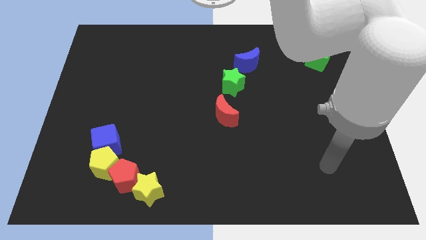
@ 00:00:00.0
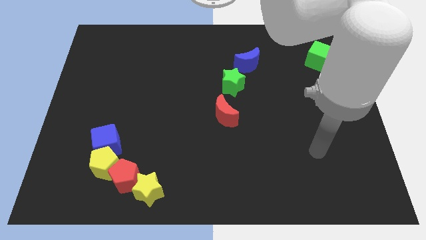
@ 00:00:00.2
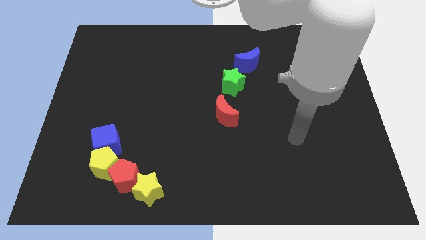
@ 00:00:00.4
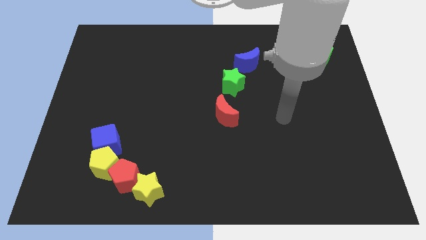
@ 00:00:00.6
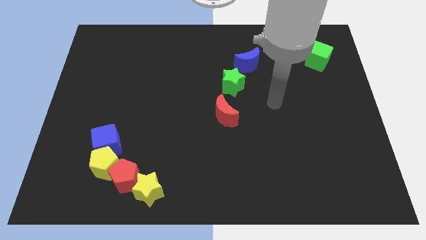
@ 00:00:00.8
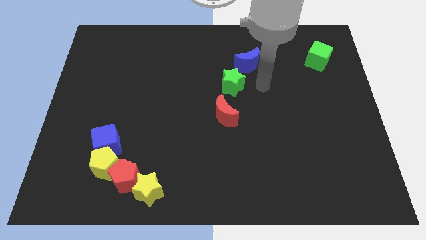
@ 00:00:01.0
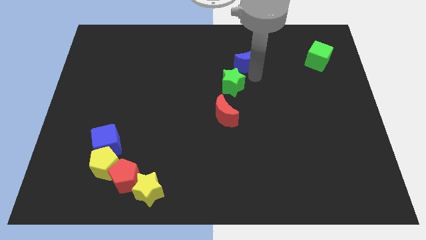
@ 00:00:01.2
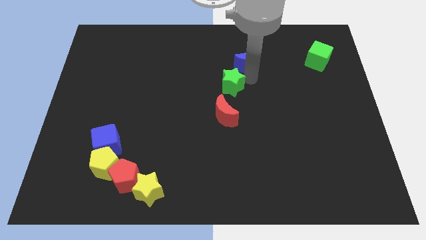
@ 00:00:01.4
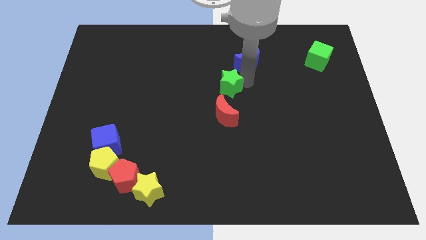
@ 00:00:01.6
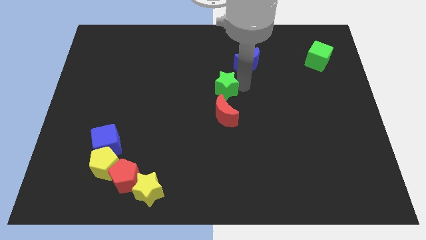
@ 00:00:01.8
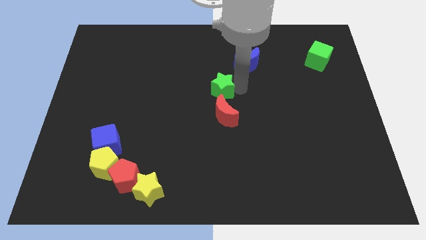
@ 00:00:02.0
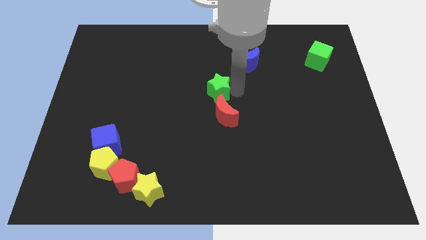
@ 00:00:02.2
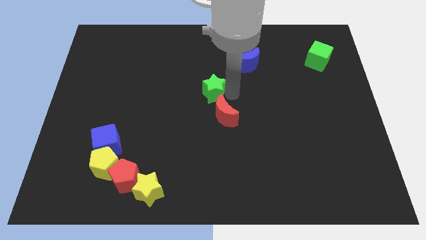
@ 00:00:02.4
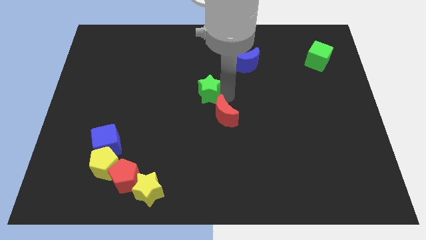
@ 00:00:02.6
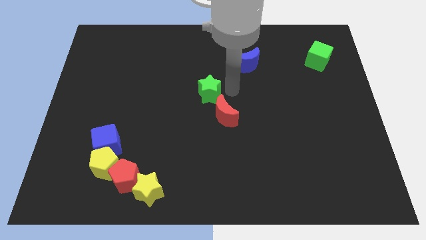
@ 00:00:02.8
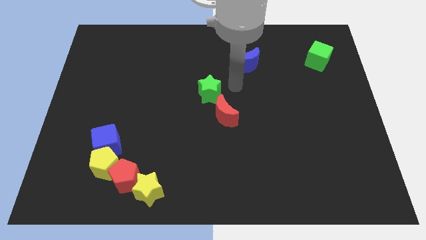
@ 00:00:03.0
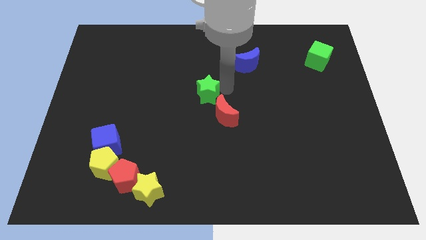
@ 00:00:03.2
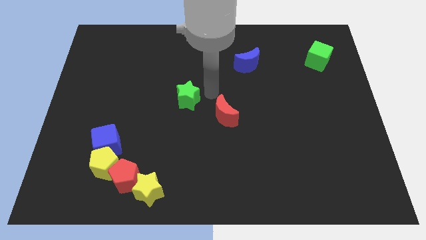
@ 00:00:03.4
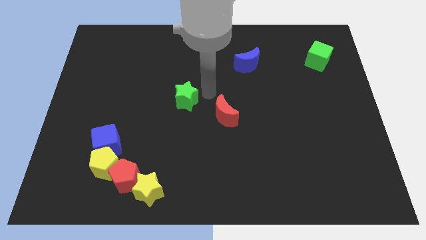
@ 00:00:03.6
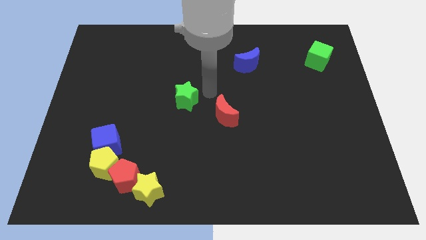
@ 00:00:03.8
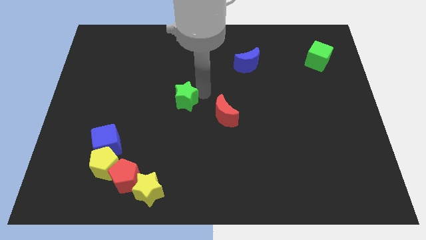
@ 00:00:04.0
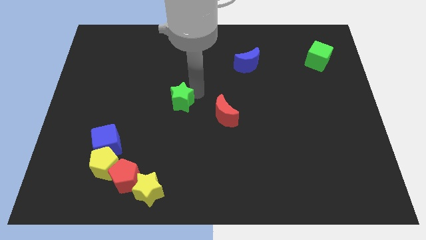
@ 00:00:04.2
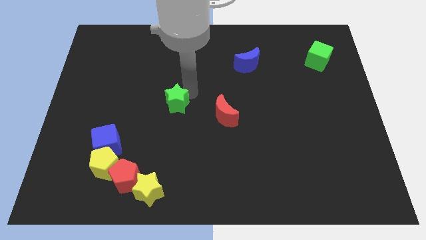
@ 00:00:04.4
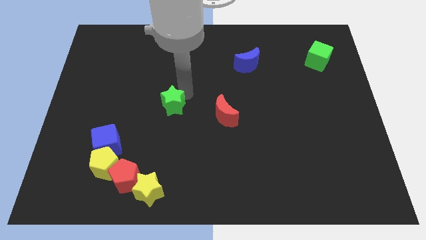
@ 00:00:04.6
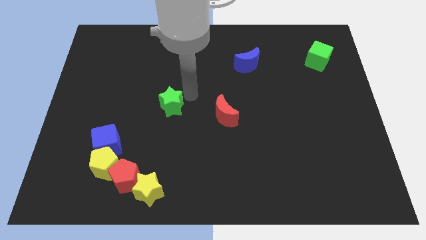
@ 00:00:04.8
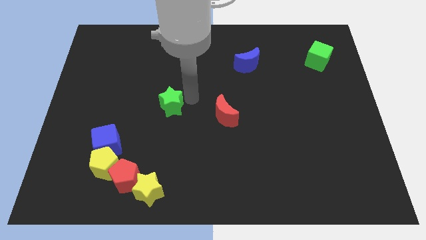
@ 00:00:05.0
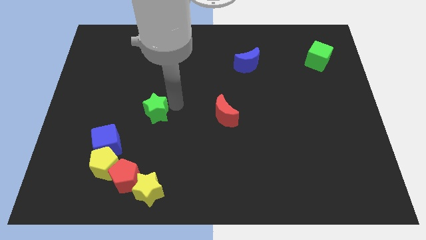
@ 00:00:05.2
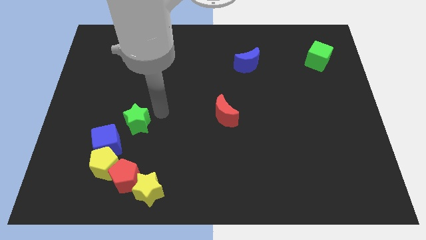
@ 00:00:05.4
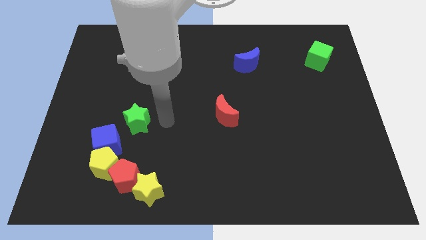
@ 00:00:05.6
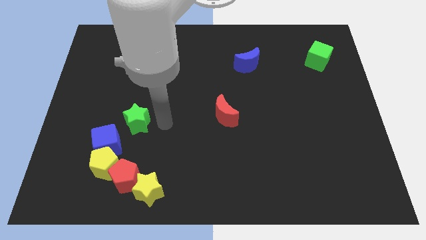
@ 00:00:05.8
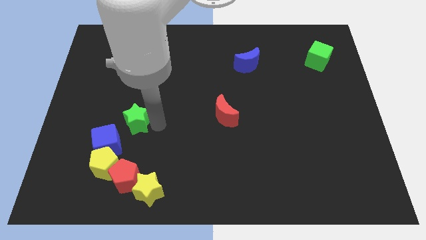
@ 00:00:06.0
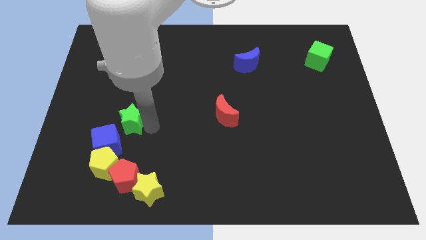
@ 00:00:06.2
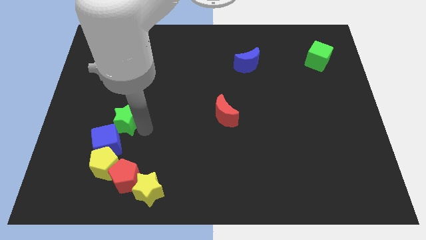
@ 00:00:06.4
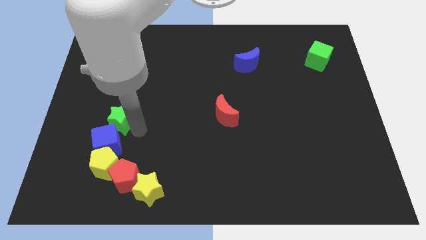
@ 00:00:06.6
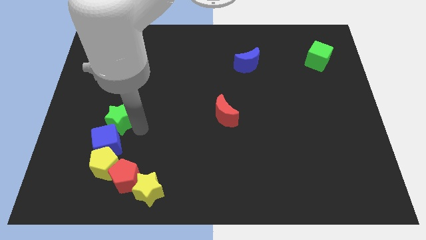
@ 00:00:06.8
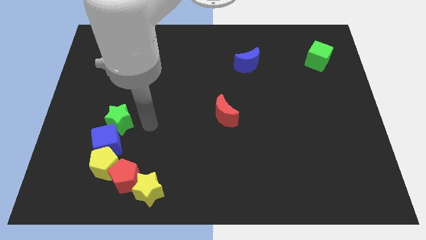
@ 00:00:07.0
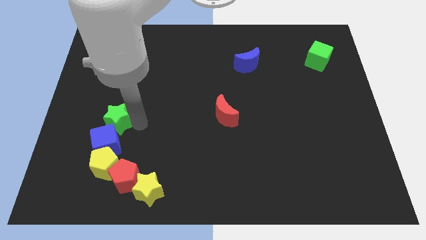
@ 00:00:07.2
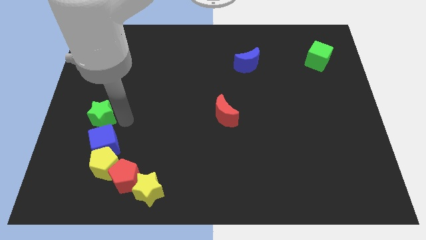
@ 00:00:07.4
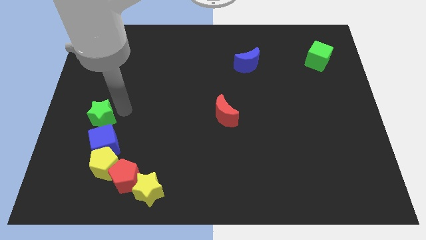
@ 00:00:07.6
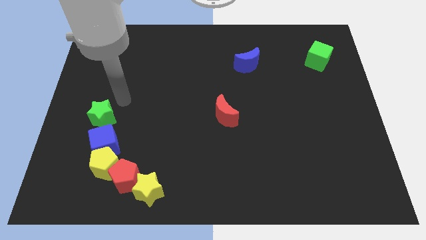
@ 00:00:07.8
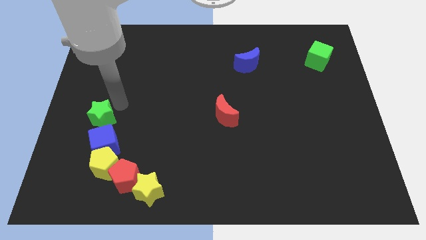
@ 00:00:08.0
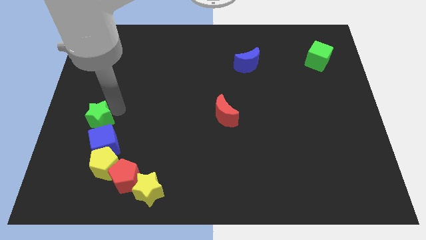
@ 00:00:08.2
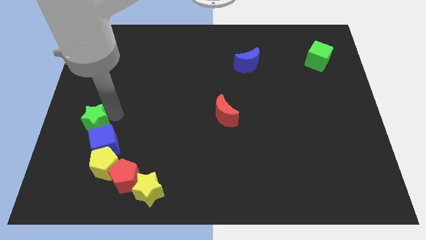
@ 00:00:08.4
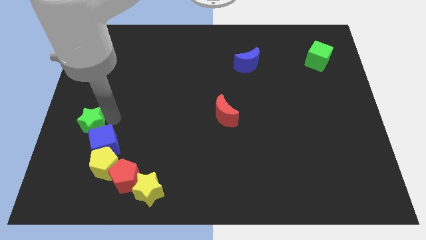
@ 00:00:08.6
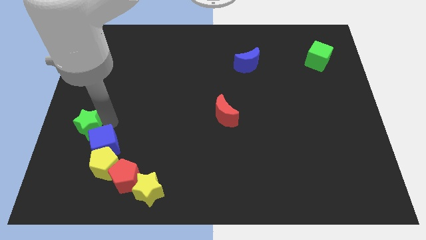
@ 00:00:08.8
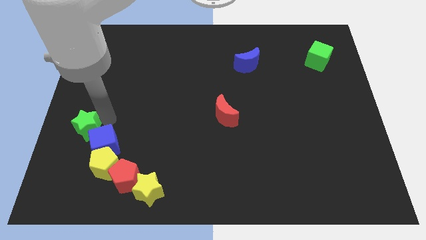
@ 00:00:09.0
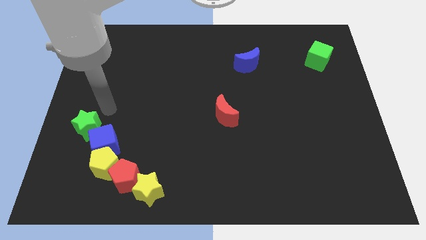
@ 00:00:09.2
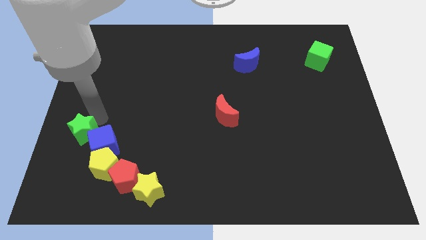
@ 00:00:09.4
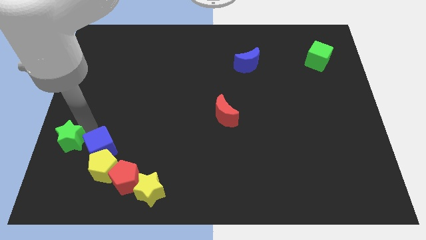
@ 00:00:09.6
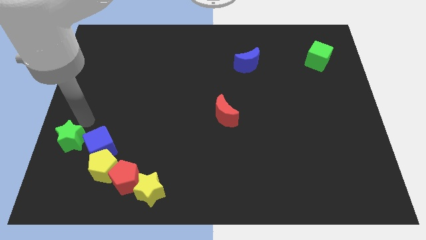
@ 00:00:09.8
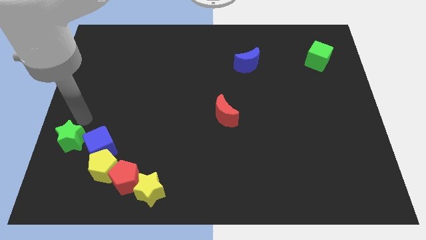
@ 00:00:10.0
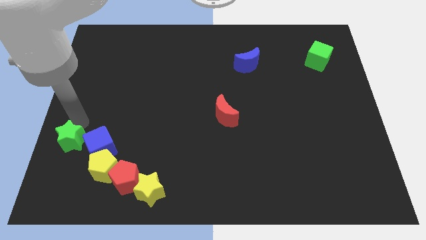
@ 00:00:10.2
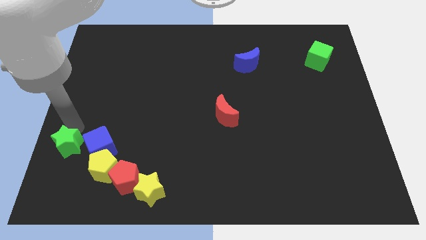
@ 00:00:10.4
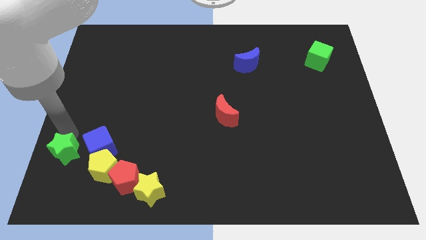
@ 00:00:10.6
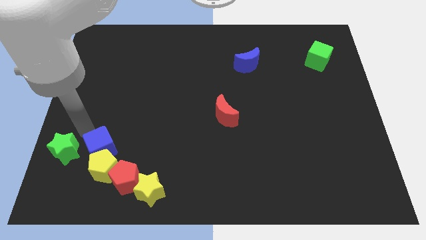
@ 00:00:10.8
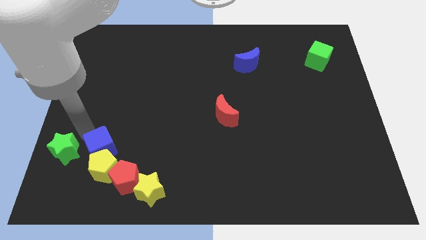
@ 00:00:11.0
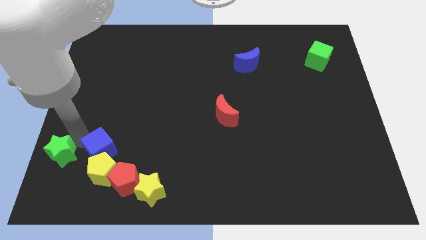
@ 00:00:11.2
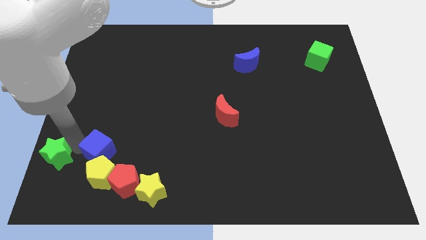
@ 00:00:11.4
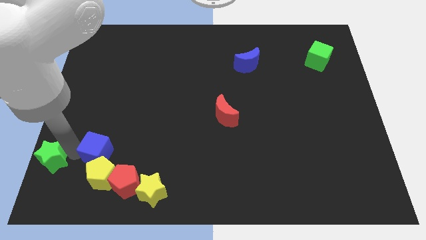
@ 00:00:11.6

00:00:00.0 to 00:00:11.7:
push the green star to the lower left corner

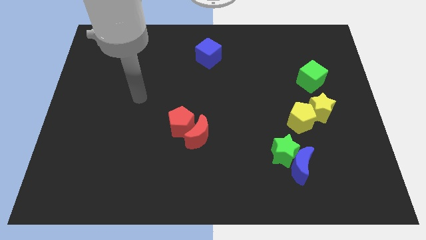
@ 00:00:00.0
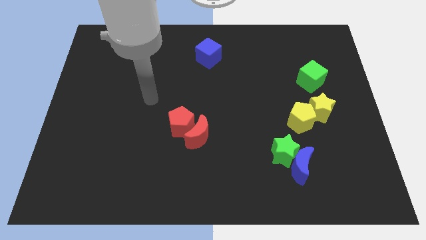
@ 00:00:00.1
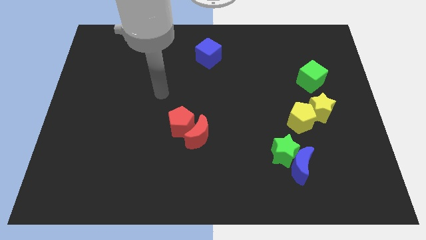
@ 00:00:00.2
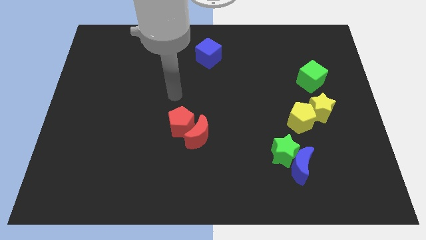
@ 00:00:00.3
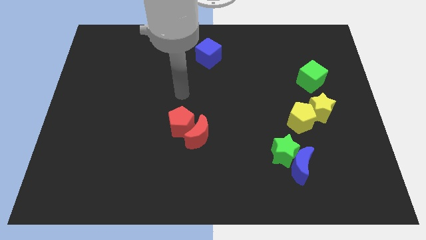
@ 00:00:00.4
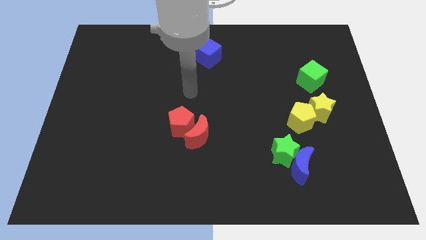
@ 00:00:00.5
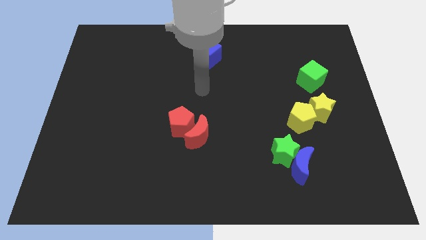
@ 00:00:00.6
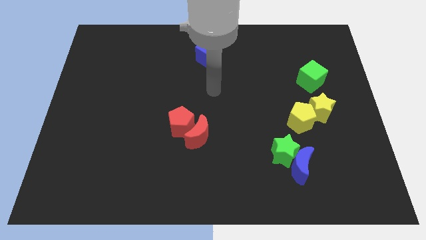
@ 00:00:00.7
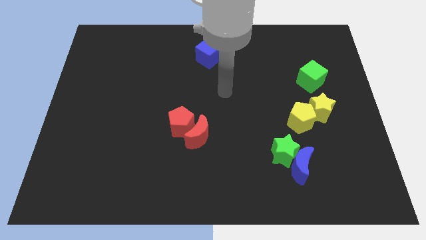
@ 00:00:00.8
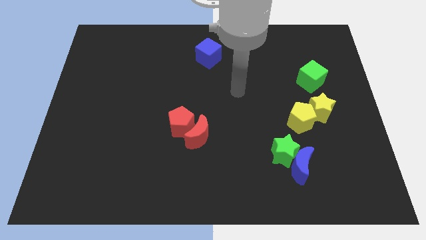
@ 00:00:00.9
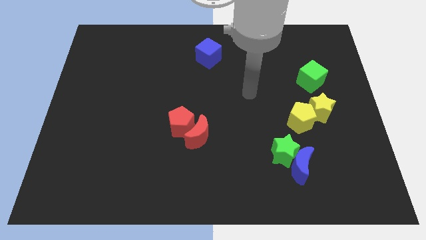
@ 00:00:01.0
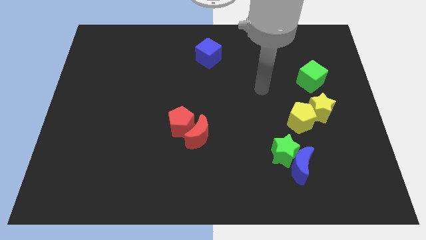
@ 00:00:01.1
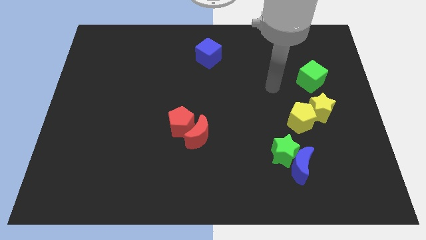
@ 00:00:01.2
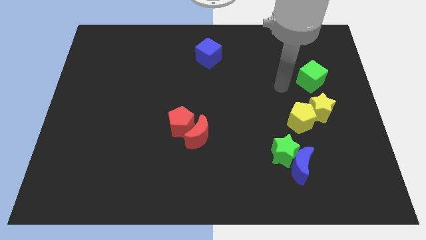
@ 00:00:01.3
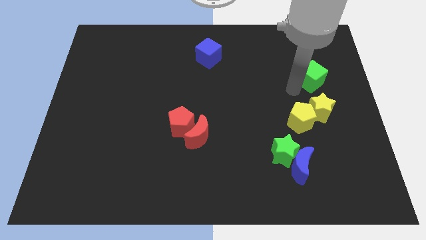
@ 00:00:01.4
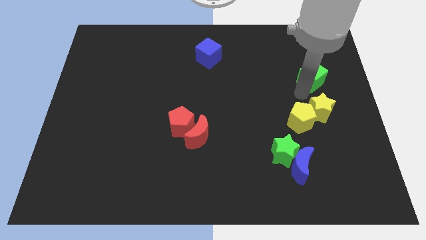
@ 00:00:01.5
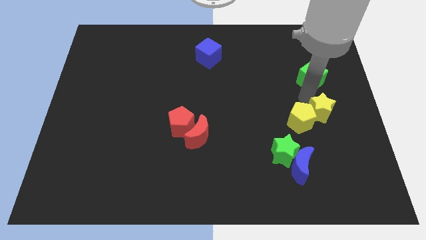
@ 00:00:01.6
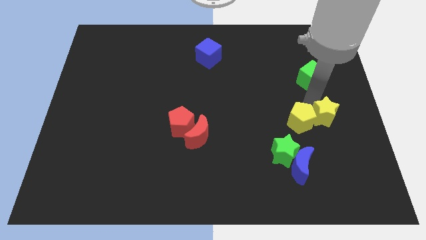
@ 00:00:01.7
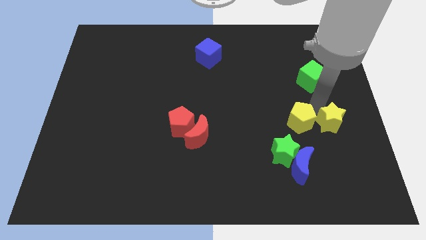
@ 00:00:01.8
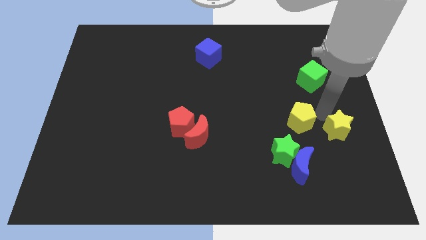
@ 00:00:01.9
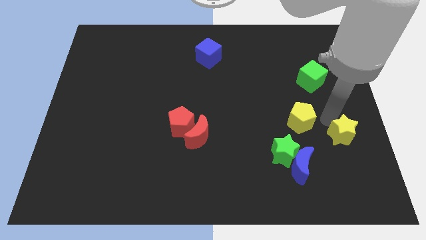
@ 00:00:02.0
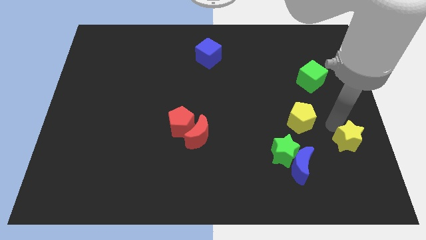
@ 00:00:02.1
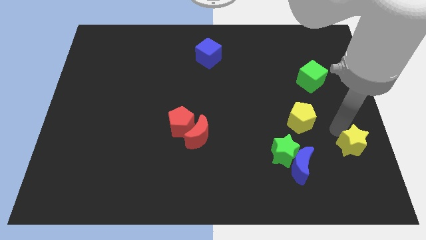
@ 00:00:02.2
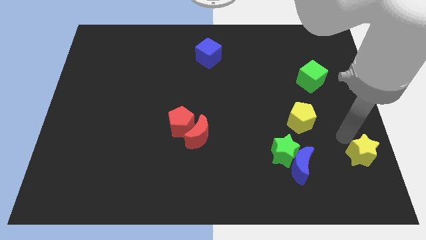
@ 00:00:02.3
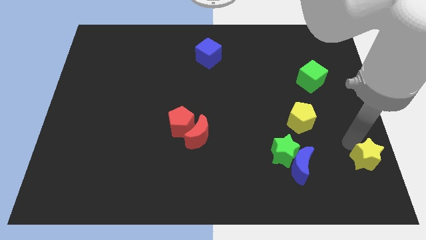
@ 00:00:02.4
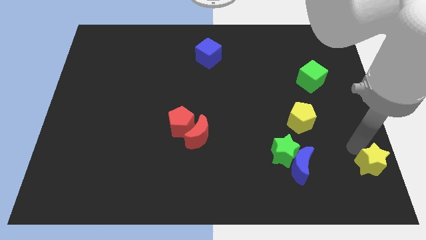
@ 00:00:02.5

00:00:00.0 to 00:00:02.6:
move the yellow star to the bottom right
